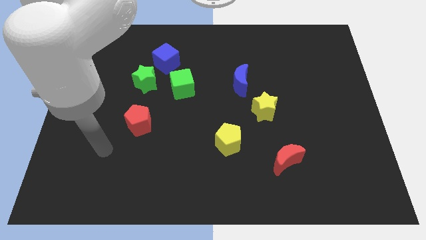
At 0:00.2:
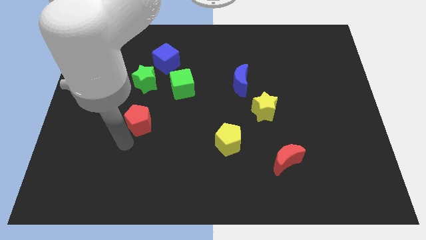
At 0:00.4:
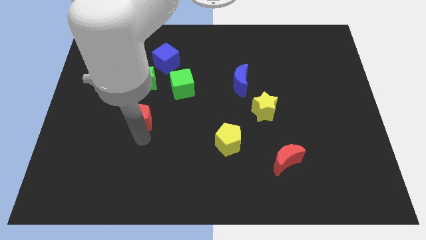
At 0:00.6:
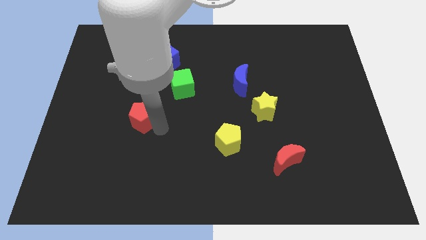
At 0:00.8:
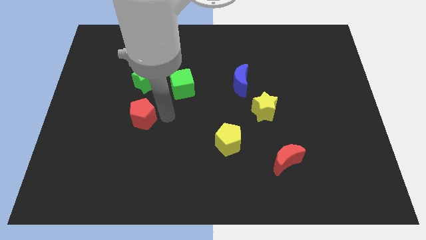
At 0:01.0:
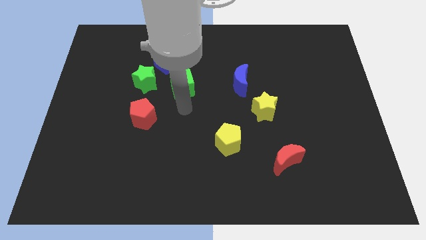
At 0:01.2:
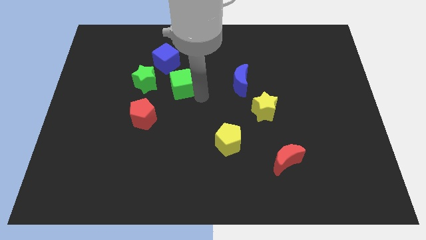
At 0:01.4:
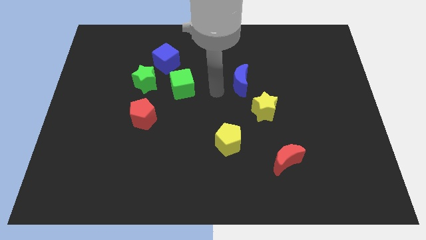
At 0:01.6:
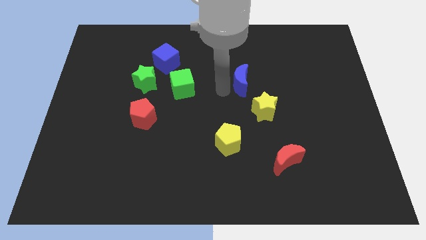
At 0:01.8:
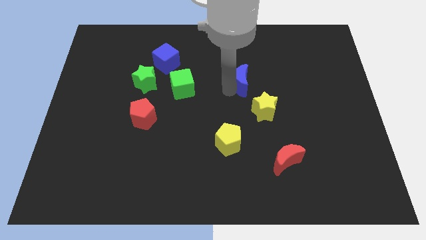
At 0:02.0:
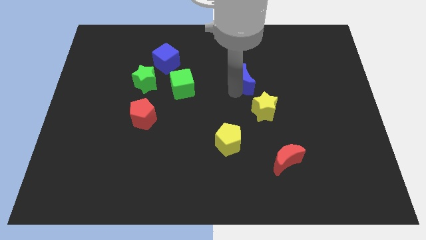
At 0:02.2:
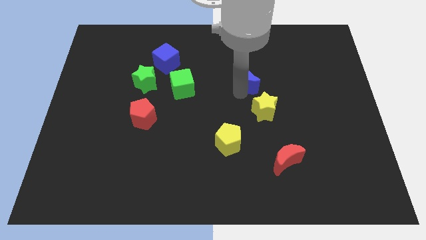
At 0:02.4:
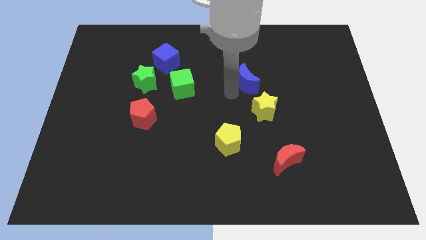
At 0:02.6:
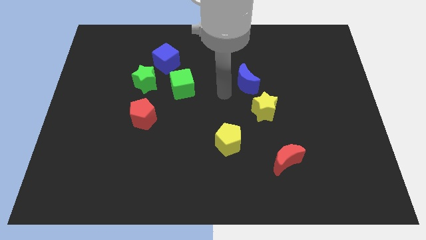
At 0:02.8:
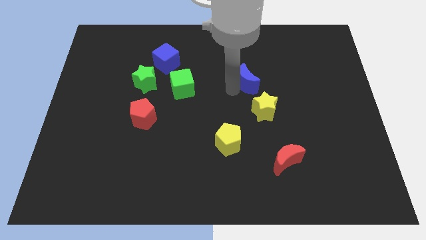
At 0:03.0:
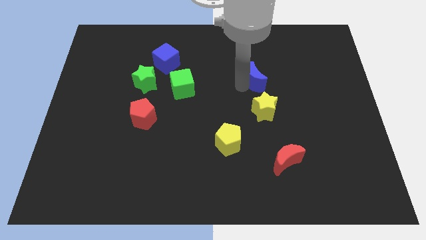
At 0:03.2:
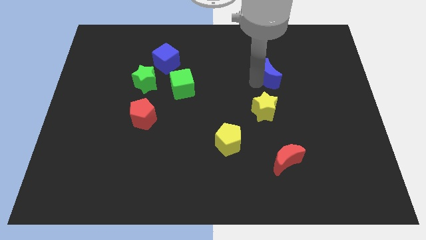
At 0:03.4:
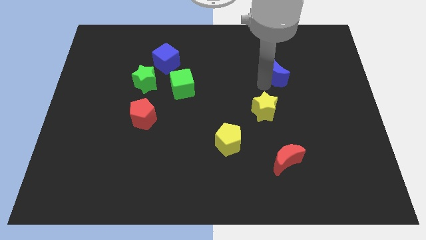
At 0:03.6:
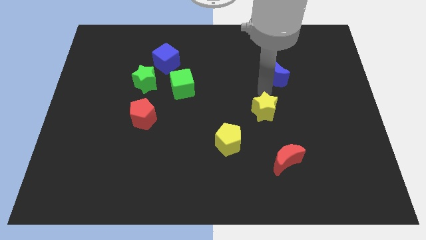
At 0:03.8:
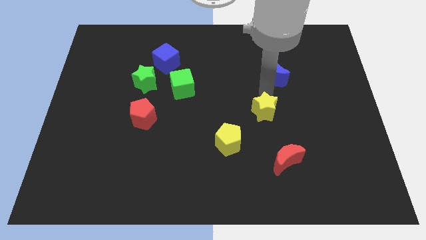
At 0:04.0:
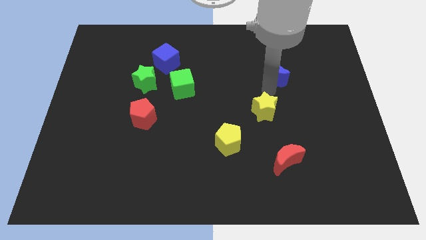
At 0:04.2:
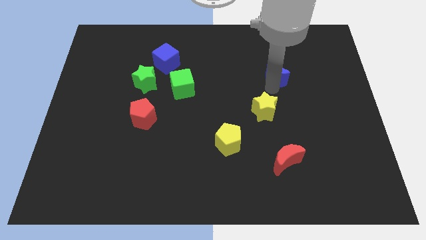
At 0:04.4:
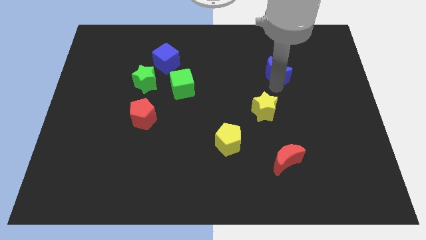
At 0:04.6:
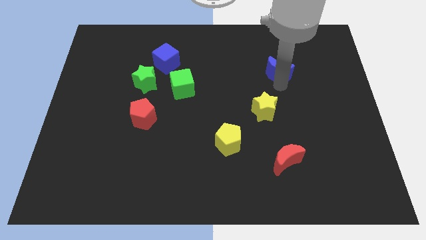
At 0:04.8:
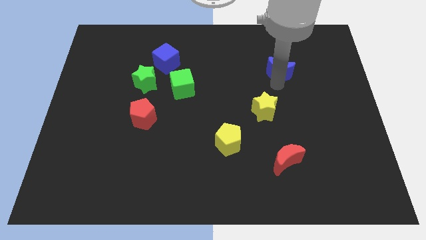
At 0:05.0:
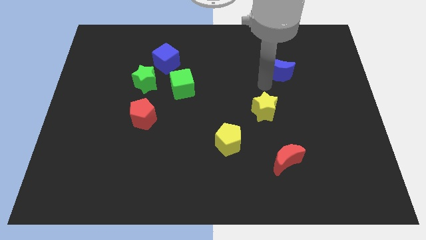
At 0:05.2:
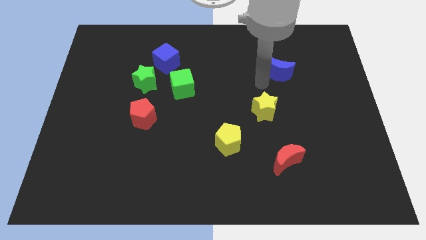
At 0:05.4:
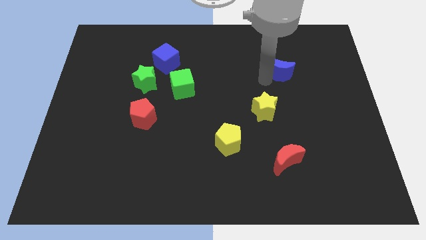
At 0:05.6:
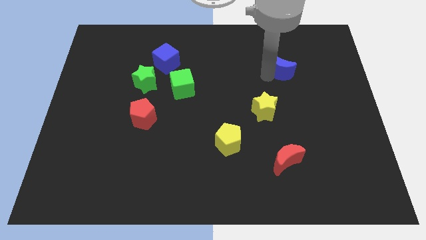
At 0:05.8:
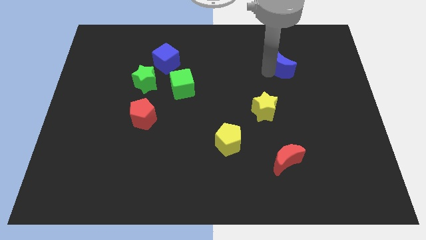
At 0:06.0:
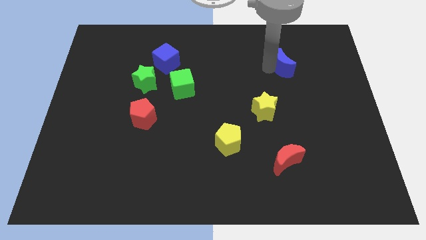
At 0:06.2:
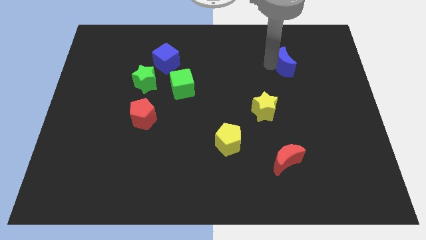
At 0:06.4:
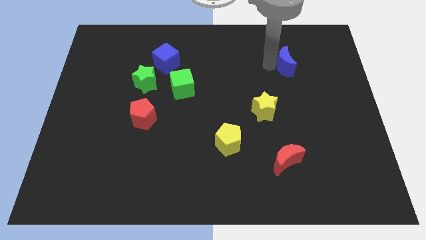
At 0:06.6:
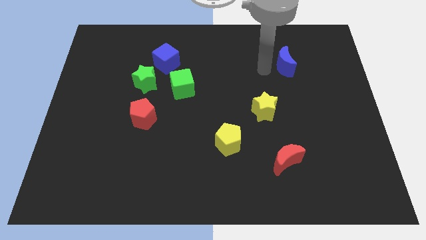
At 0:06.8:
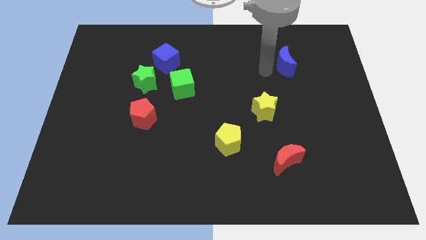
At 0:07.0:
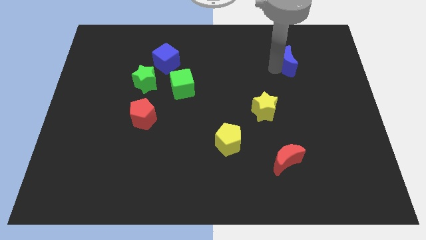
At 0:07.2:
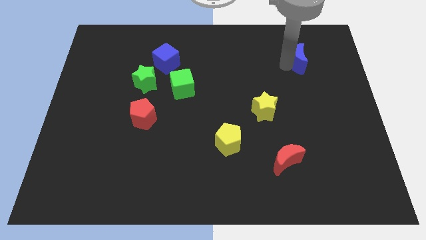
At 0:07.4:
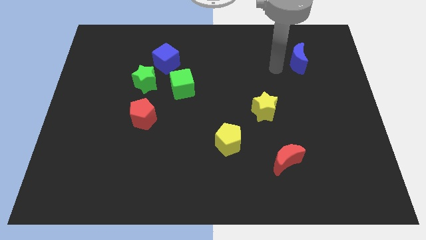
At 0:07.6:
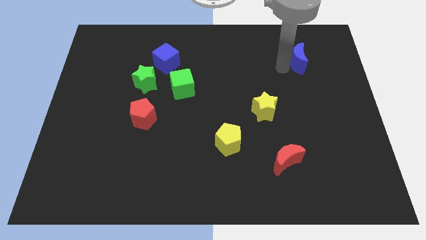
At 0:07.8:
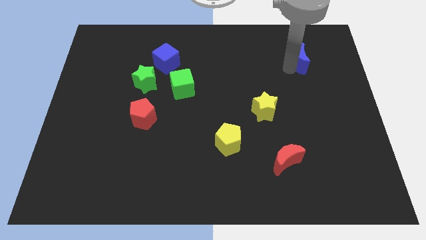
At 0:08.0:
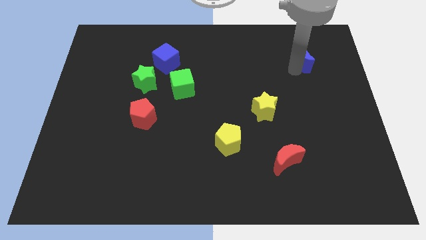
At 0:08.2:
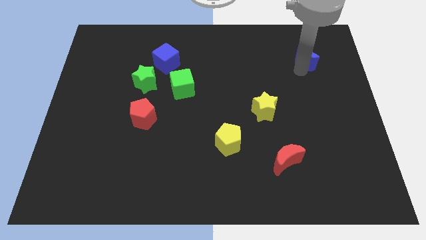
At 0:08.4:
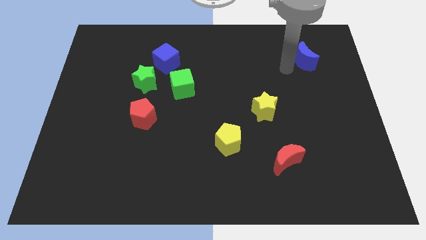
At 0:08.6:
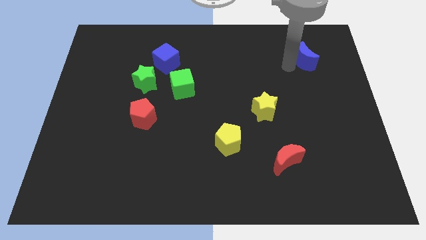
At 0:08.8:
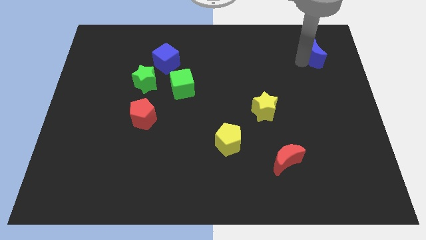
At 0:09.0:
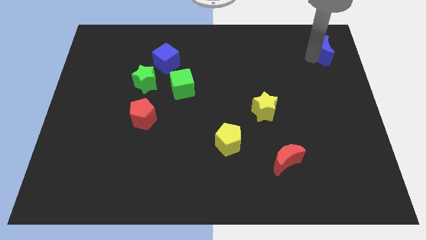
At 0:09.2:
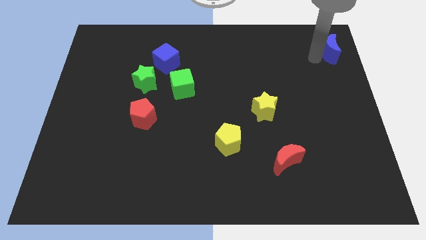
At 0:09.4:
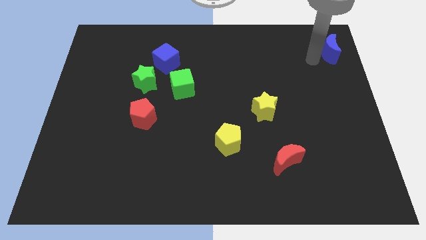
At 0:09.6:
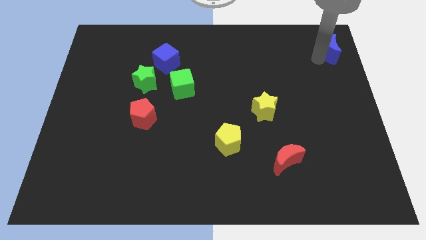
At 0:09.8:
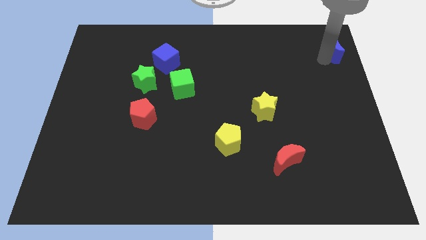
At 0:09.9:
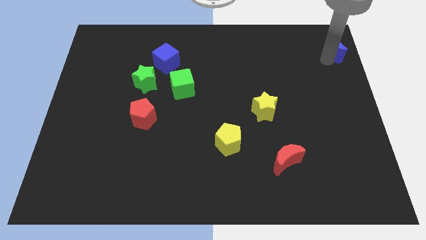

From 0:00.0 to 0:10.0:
put the blue moon to the top right corner

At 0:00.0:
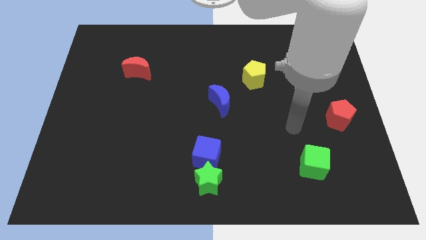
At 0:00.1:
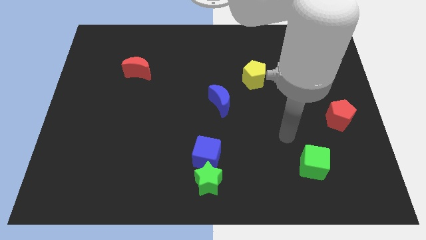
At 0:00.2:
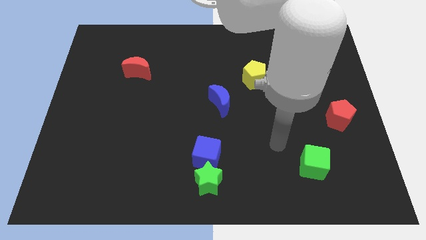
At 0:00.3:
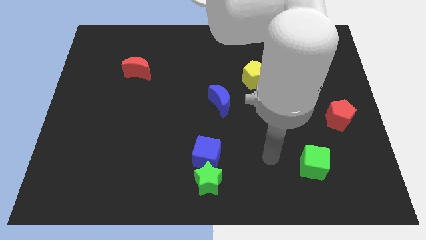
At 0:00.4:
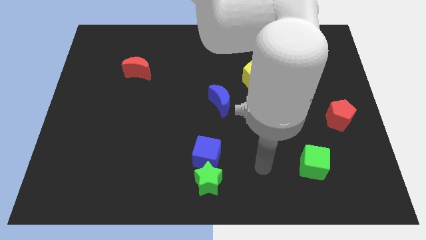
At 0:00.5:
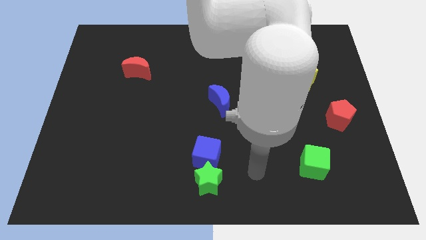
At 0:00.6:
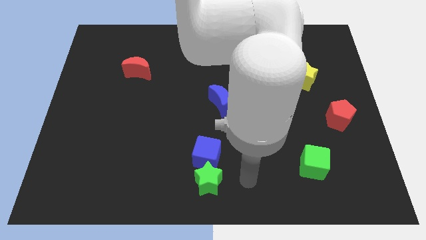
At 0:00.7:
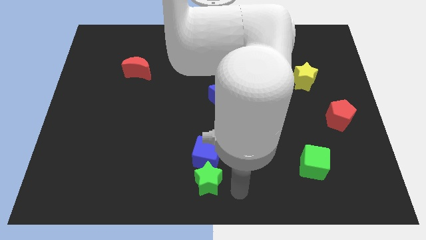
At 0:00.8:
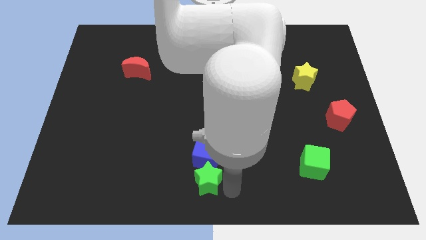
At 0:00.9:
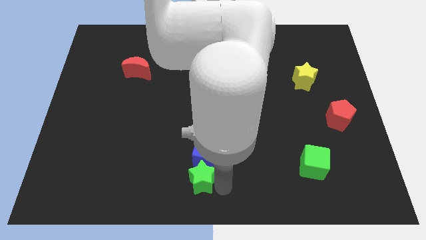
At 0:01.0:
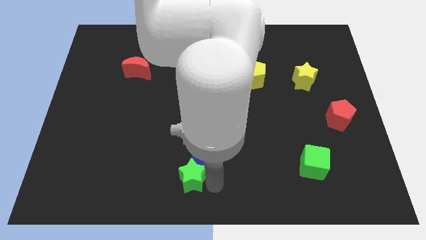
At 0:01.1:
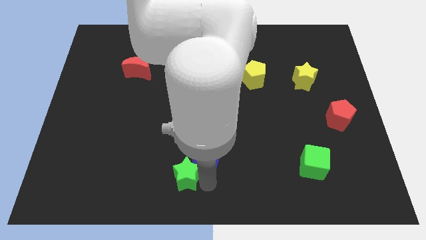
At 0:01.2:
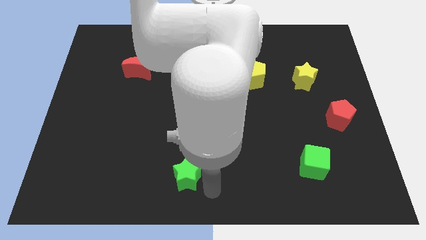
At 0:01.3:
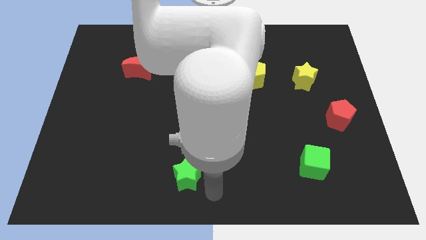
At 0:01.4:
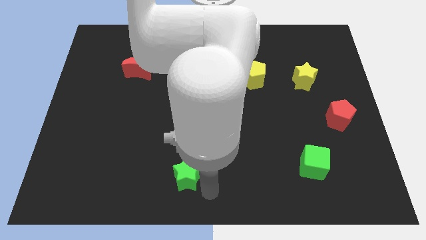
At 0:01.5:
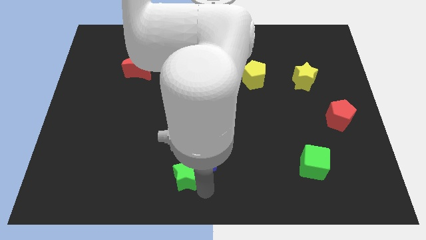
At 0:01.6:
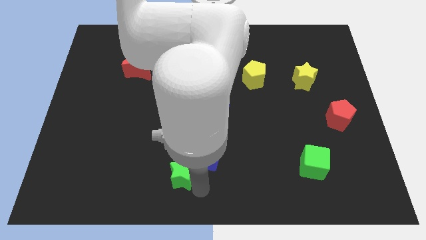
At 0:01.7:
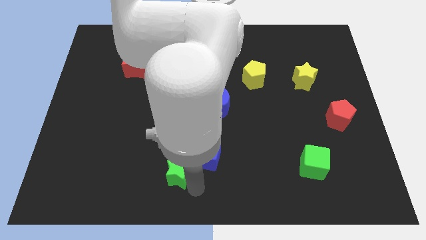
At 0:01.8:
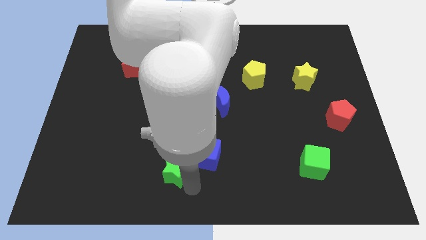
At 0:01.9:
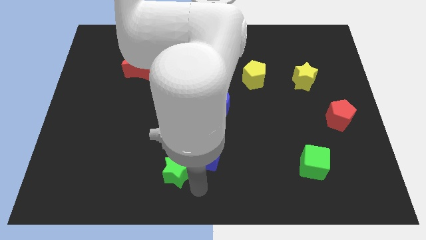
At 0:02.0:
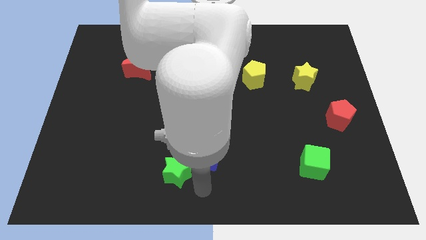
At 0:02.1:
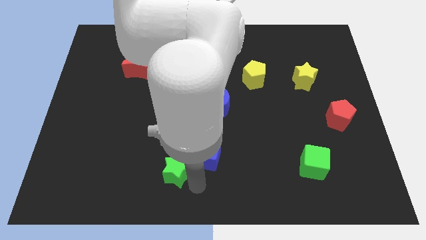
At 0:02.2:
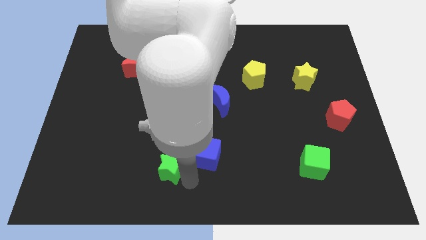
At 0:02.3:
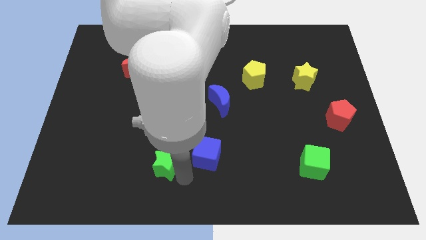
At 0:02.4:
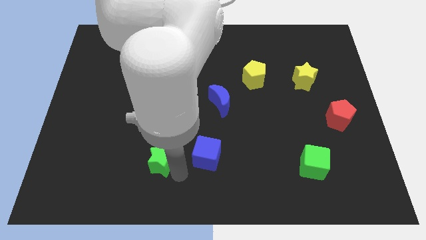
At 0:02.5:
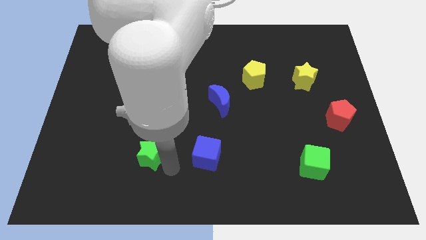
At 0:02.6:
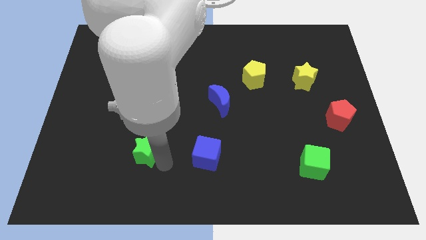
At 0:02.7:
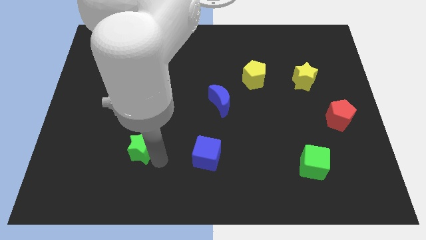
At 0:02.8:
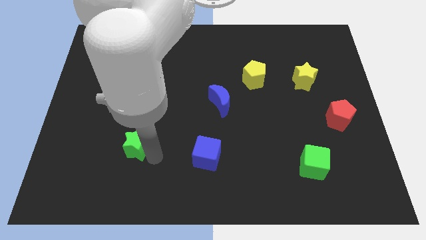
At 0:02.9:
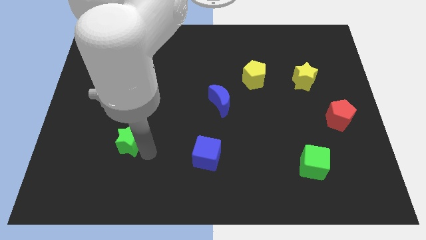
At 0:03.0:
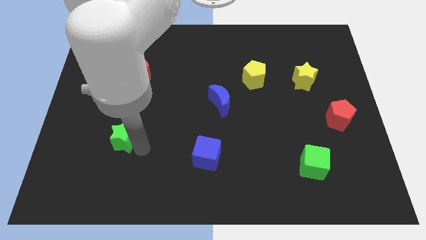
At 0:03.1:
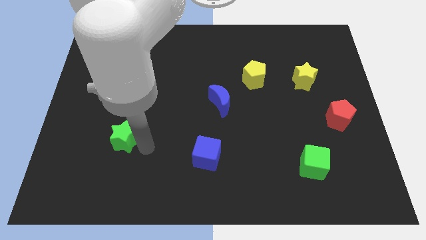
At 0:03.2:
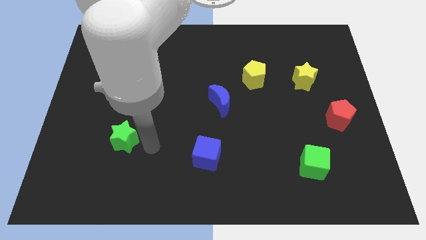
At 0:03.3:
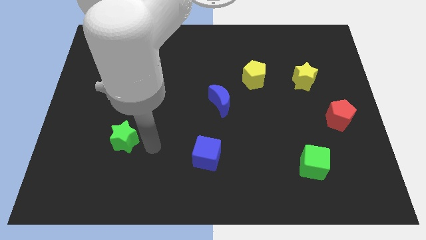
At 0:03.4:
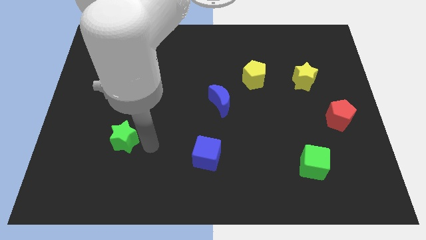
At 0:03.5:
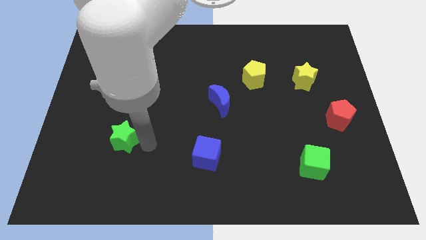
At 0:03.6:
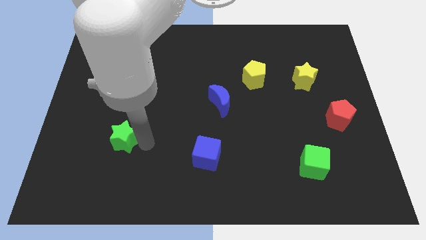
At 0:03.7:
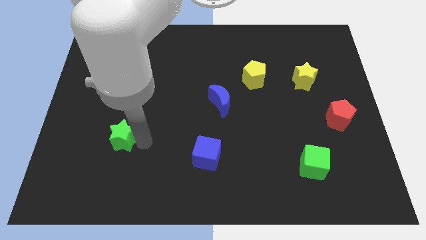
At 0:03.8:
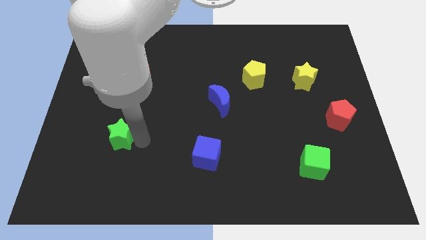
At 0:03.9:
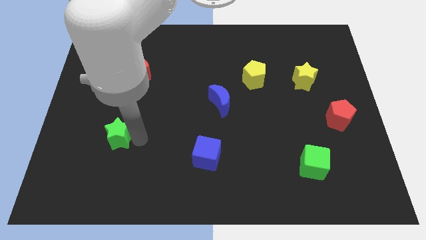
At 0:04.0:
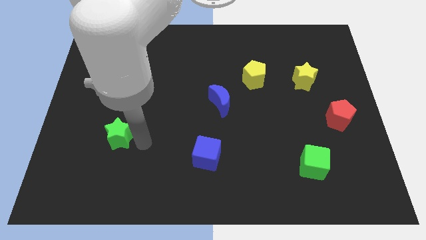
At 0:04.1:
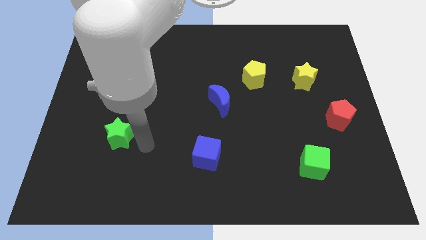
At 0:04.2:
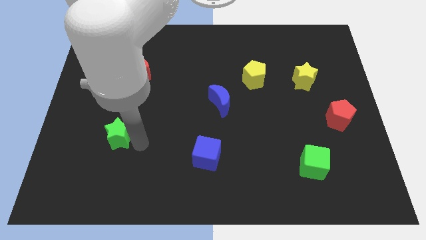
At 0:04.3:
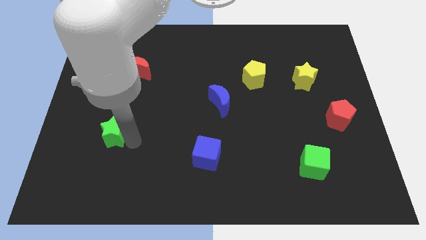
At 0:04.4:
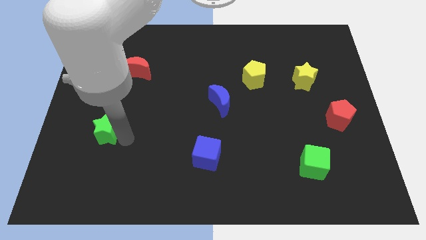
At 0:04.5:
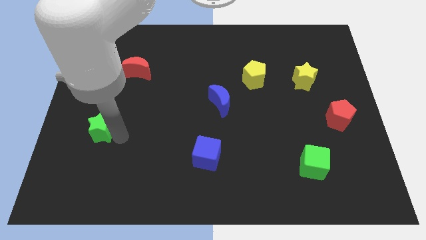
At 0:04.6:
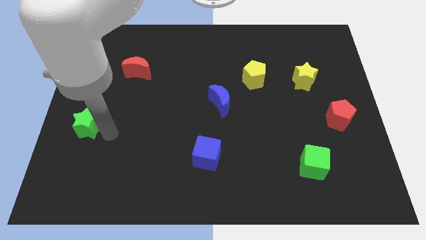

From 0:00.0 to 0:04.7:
put the green star to the left side
